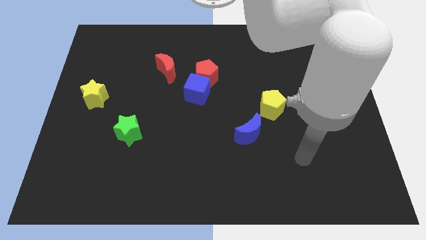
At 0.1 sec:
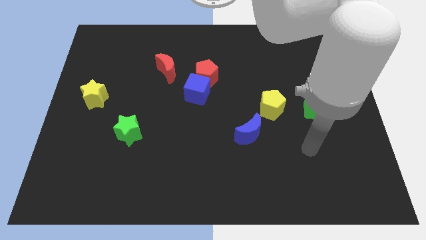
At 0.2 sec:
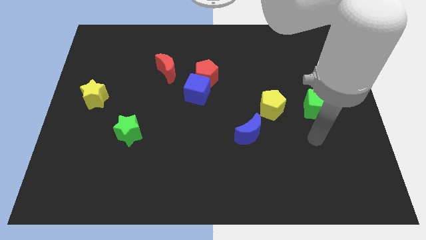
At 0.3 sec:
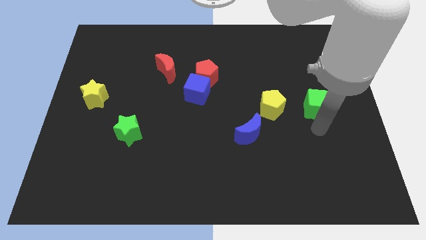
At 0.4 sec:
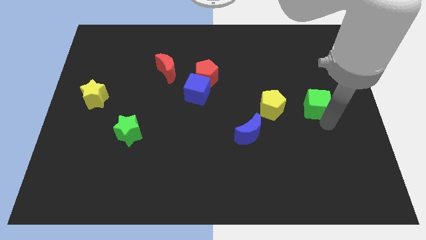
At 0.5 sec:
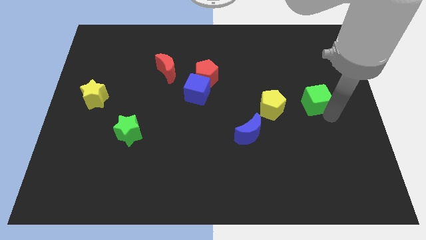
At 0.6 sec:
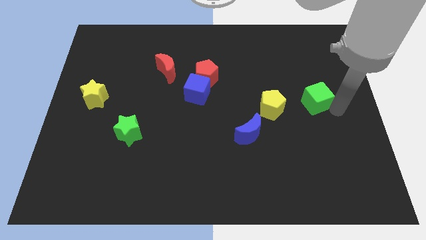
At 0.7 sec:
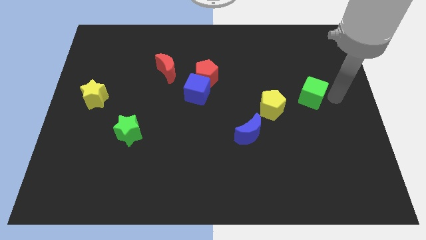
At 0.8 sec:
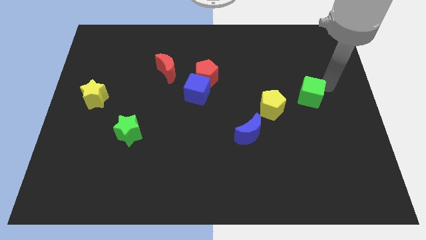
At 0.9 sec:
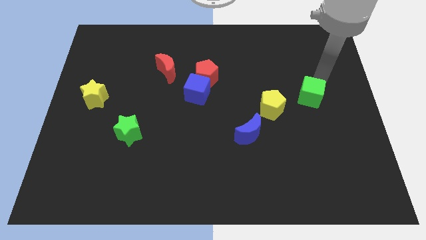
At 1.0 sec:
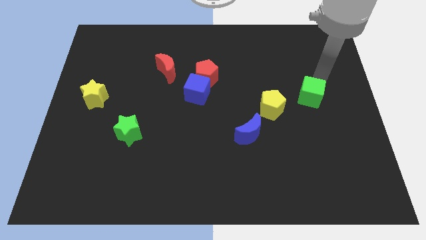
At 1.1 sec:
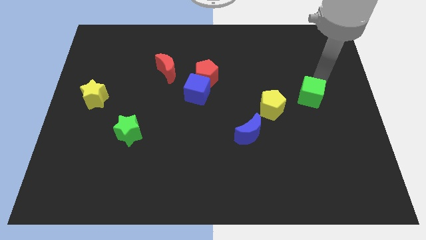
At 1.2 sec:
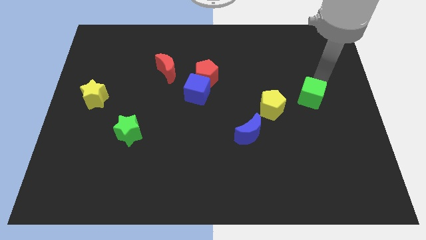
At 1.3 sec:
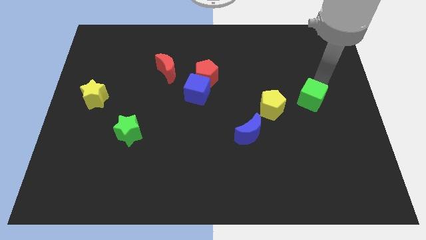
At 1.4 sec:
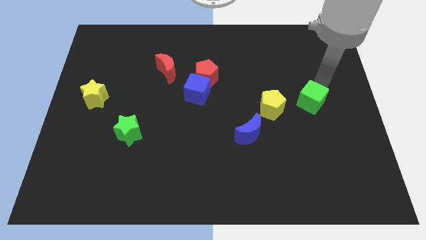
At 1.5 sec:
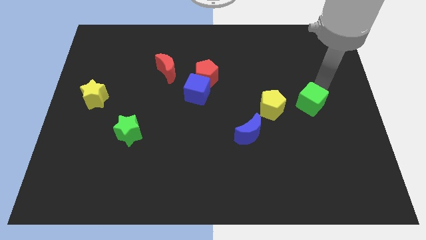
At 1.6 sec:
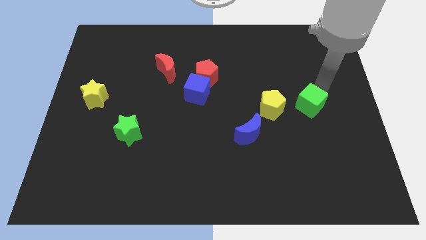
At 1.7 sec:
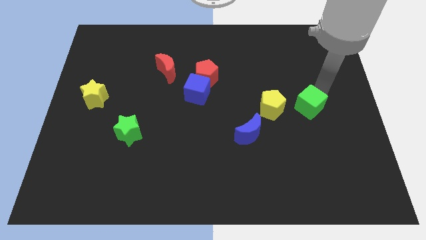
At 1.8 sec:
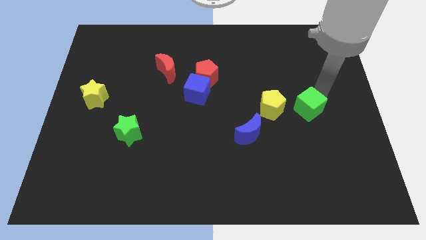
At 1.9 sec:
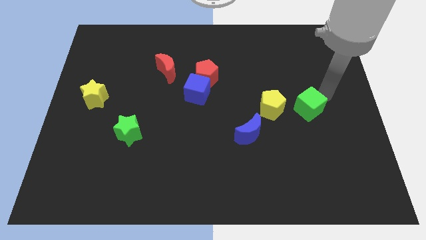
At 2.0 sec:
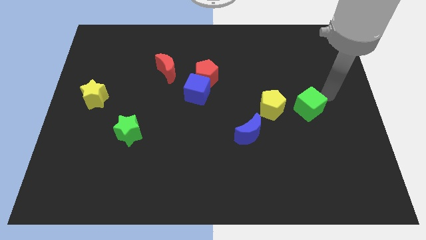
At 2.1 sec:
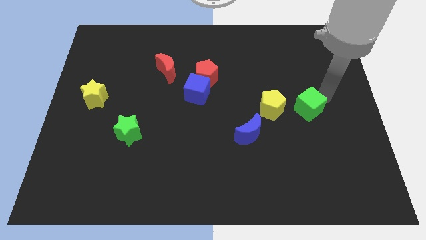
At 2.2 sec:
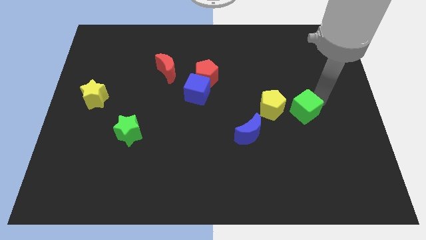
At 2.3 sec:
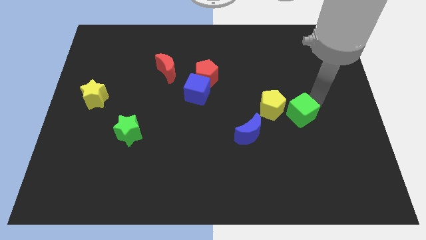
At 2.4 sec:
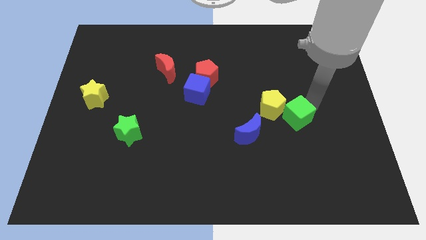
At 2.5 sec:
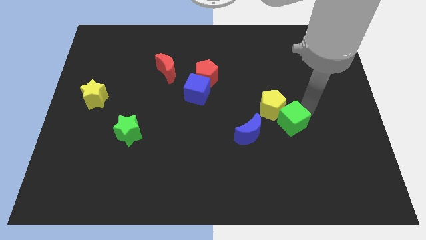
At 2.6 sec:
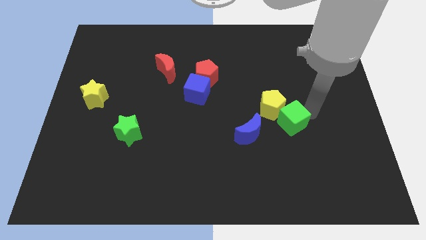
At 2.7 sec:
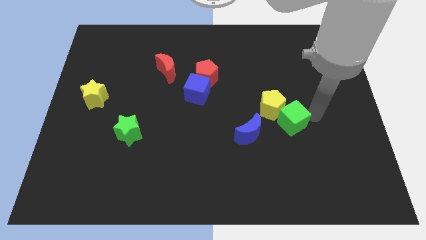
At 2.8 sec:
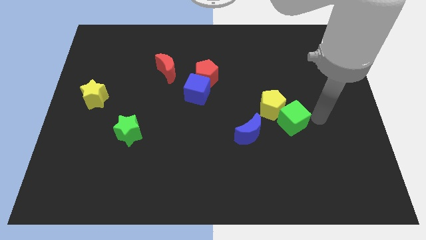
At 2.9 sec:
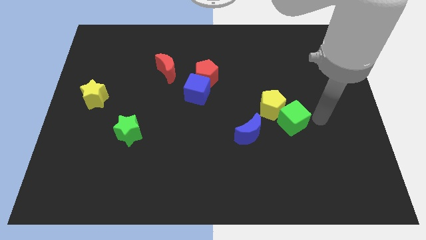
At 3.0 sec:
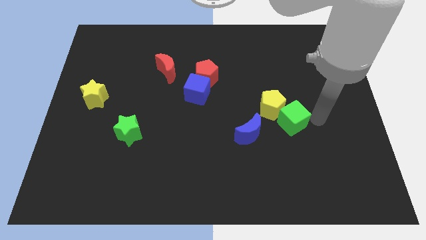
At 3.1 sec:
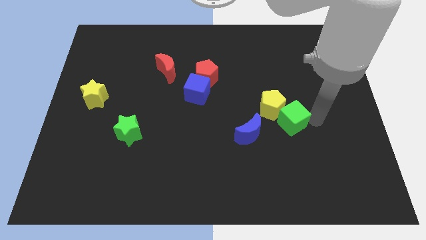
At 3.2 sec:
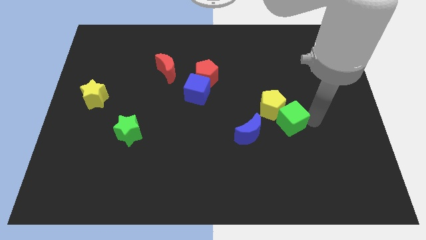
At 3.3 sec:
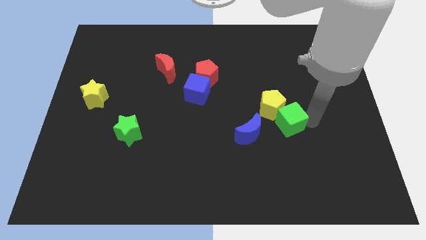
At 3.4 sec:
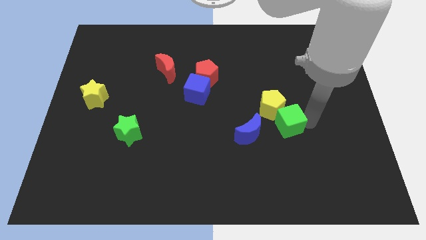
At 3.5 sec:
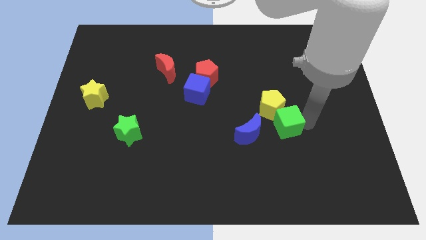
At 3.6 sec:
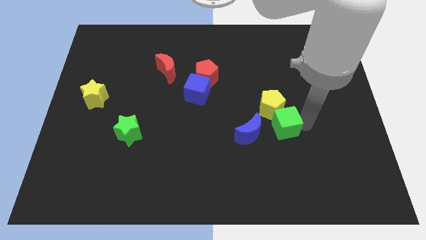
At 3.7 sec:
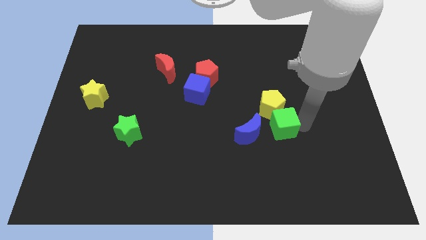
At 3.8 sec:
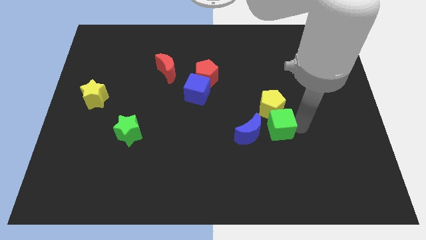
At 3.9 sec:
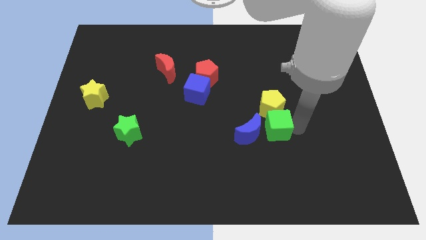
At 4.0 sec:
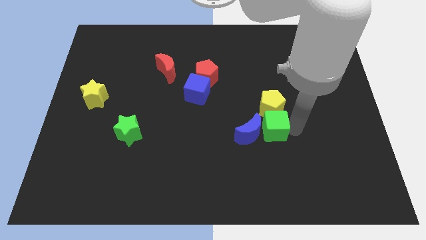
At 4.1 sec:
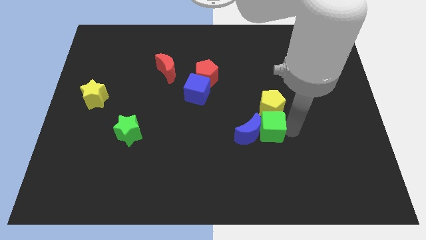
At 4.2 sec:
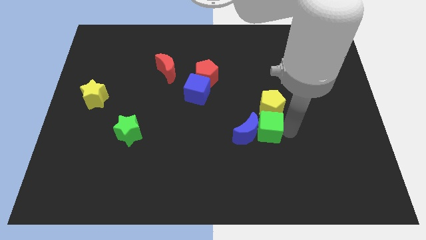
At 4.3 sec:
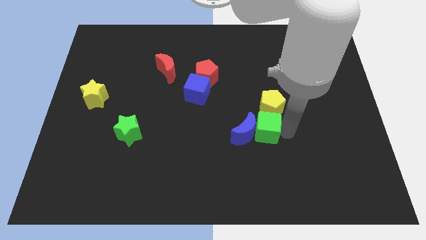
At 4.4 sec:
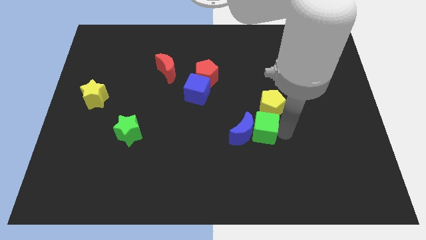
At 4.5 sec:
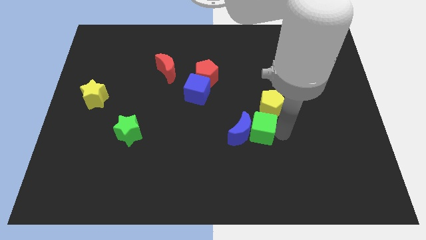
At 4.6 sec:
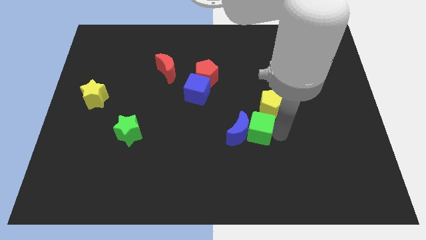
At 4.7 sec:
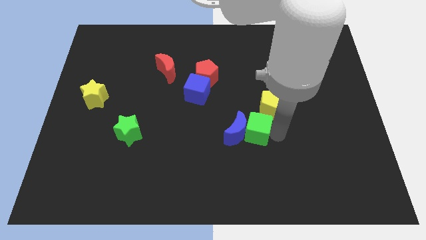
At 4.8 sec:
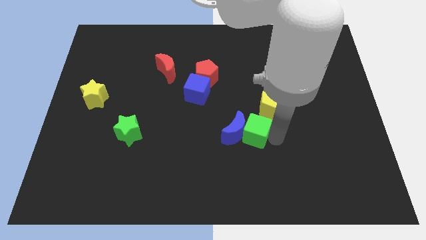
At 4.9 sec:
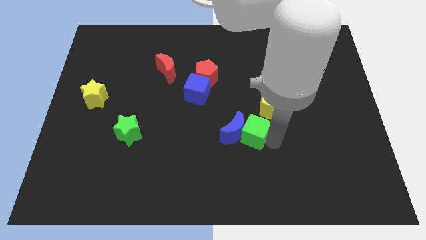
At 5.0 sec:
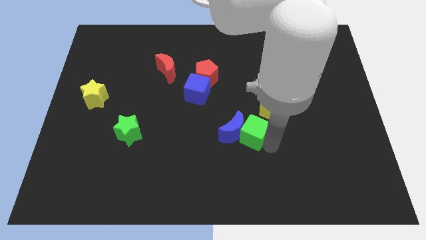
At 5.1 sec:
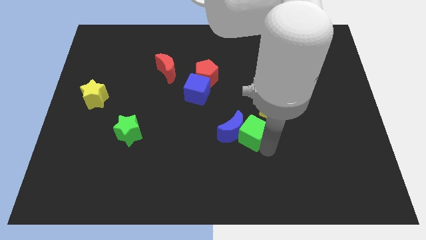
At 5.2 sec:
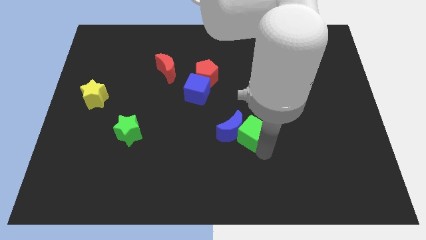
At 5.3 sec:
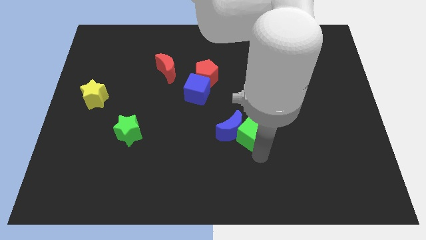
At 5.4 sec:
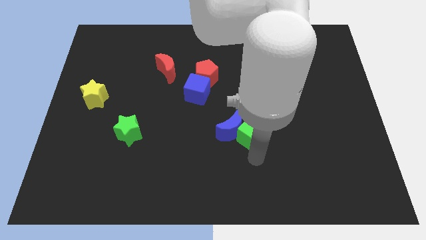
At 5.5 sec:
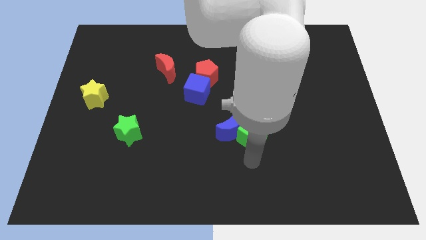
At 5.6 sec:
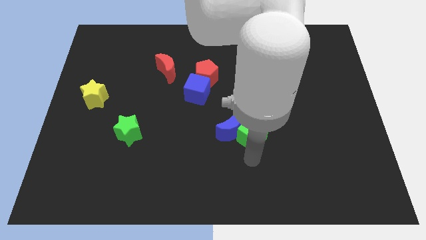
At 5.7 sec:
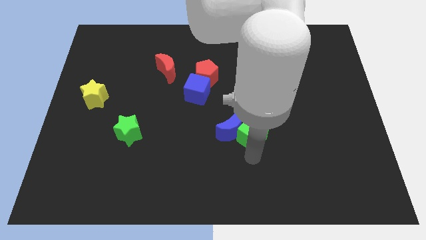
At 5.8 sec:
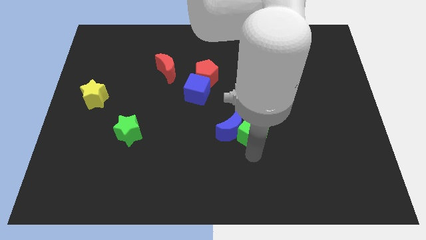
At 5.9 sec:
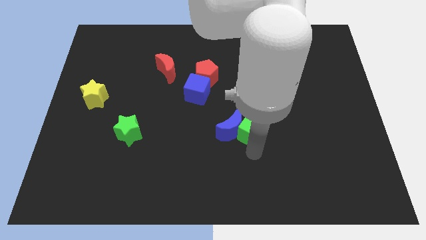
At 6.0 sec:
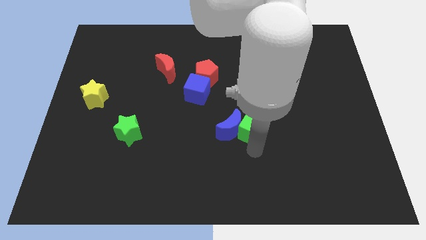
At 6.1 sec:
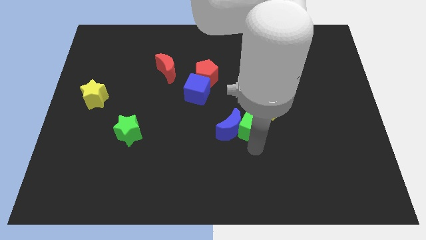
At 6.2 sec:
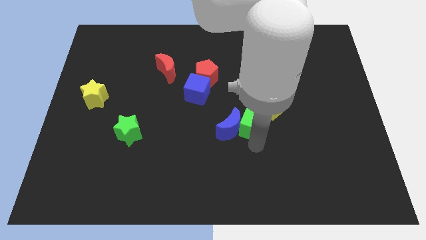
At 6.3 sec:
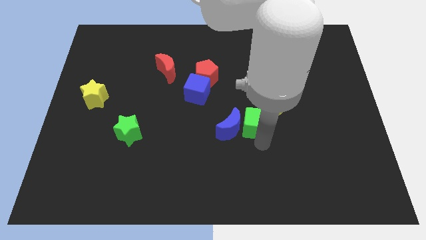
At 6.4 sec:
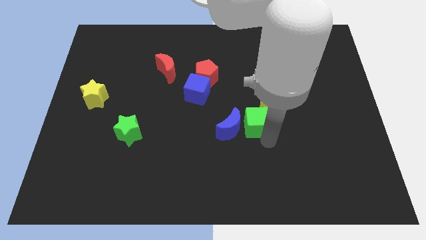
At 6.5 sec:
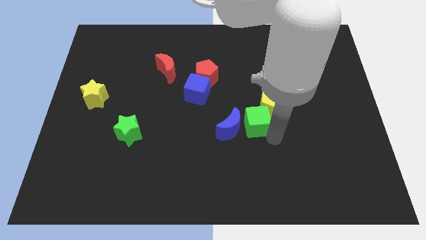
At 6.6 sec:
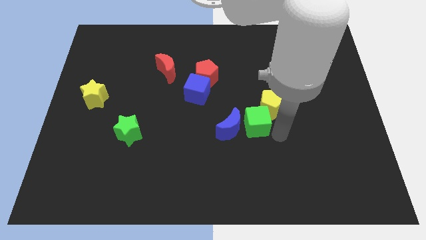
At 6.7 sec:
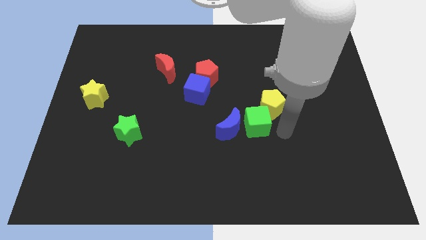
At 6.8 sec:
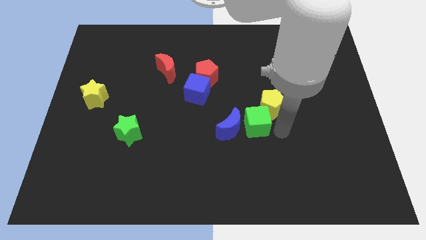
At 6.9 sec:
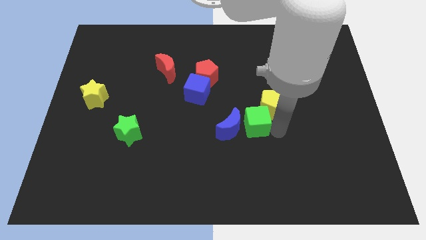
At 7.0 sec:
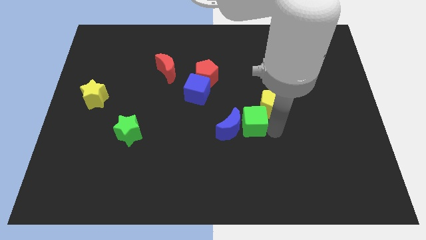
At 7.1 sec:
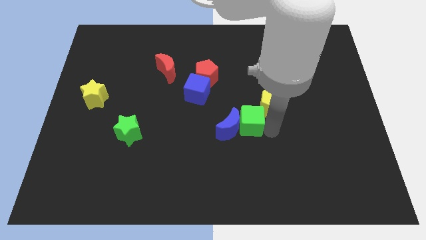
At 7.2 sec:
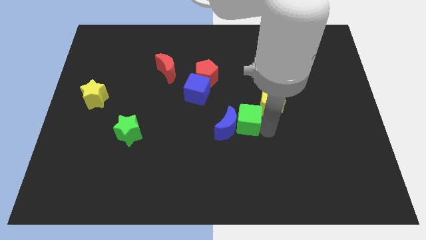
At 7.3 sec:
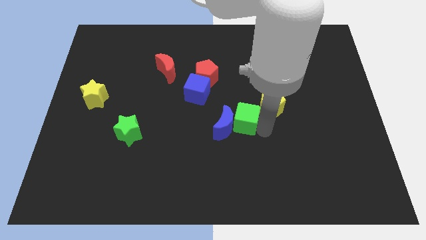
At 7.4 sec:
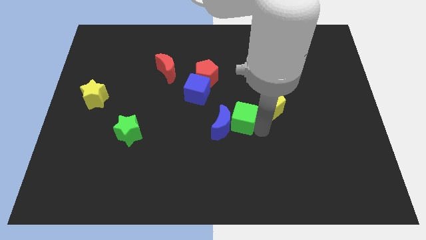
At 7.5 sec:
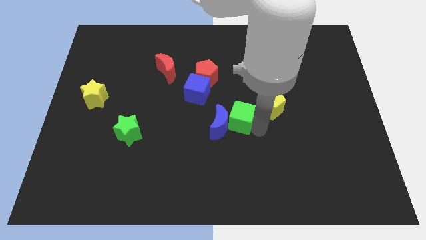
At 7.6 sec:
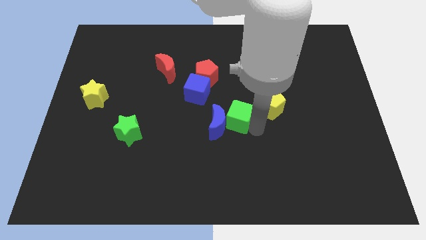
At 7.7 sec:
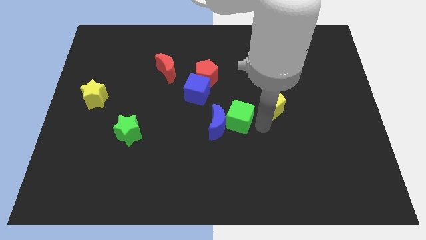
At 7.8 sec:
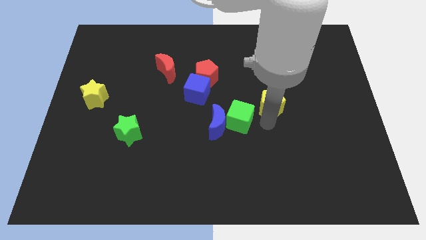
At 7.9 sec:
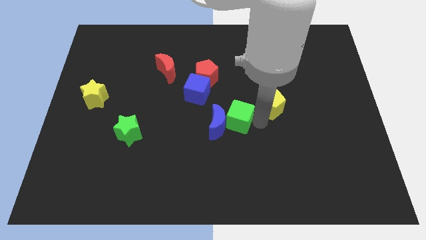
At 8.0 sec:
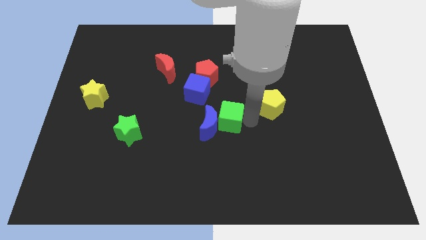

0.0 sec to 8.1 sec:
push the green cube left
